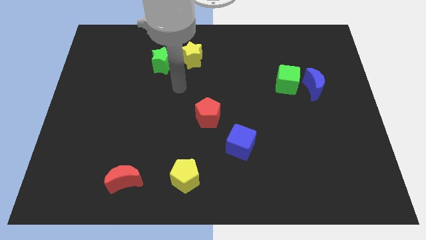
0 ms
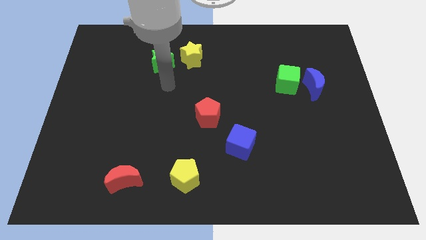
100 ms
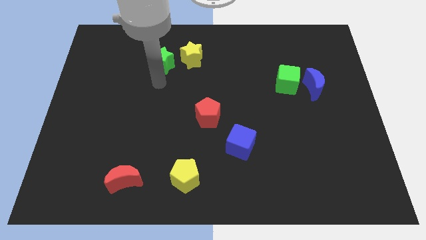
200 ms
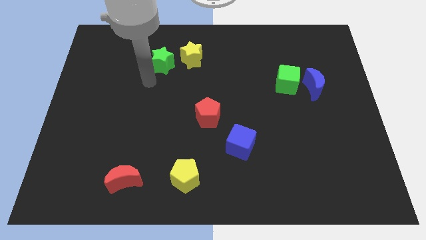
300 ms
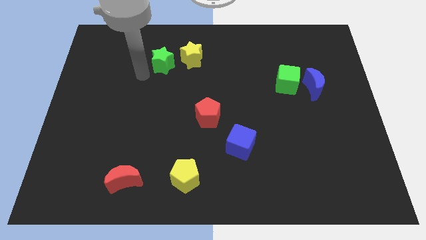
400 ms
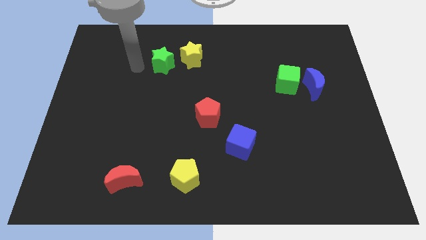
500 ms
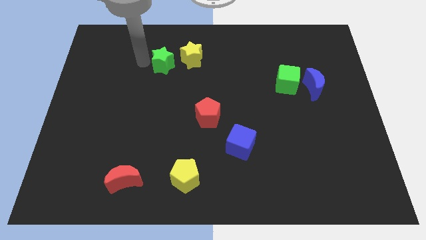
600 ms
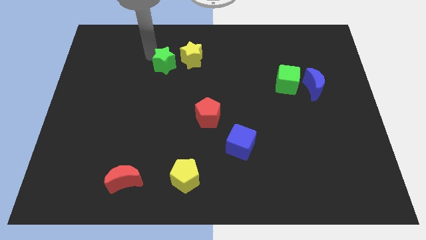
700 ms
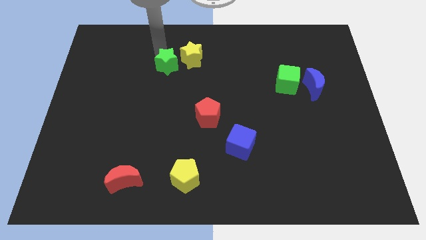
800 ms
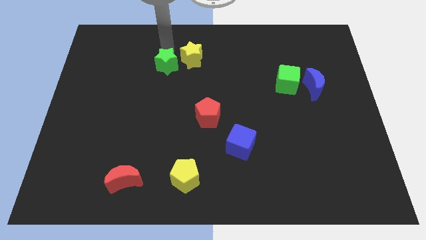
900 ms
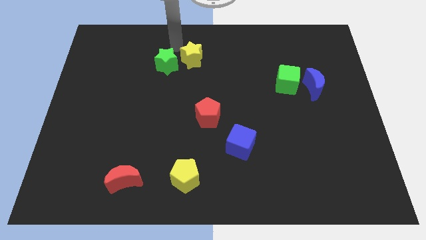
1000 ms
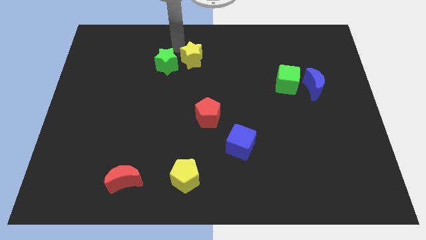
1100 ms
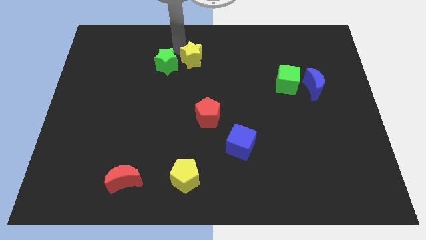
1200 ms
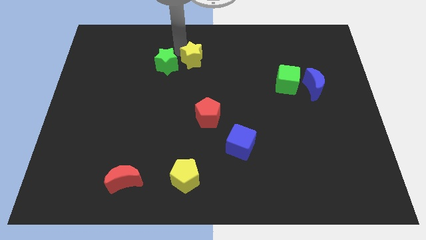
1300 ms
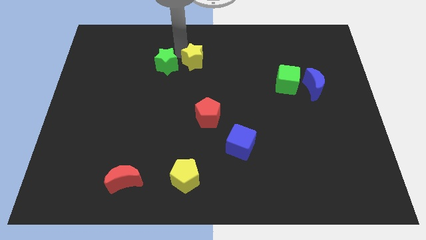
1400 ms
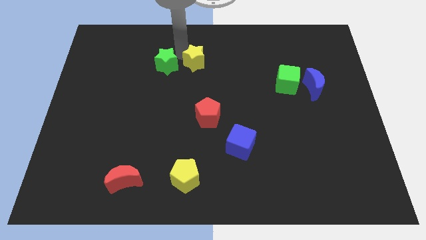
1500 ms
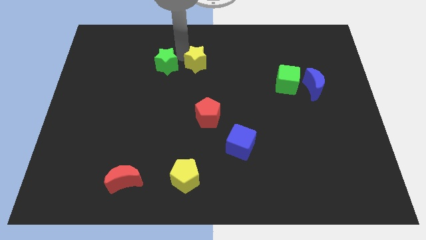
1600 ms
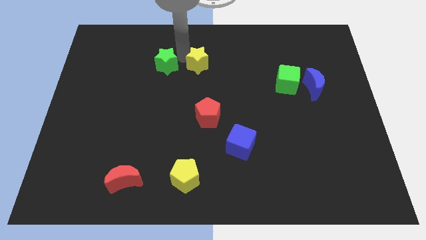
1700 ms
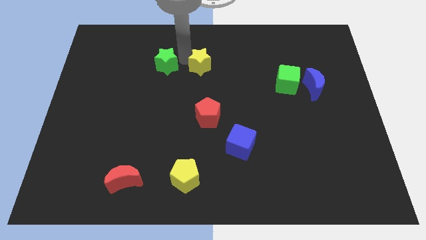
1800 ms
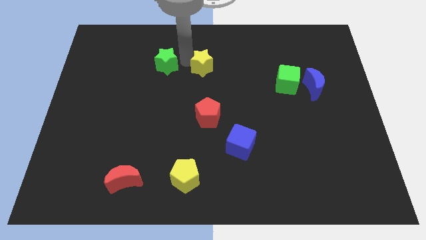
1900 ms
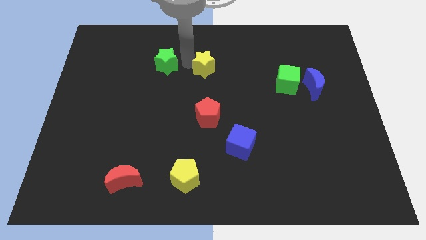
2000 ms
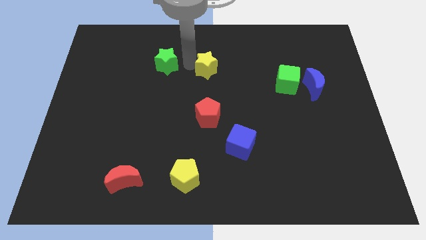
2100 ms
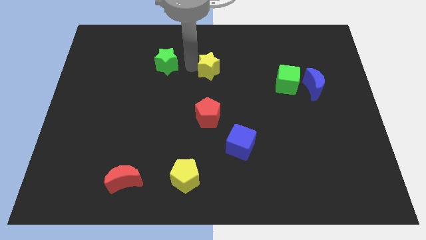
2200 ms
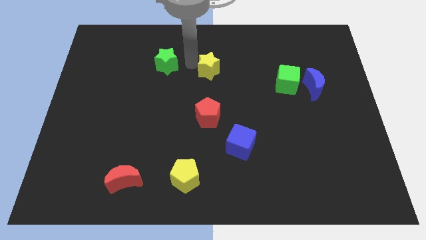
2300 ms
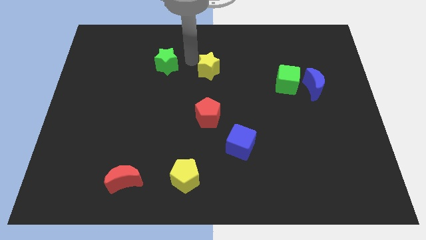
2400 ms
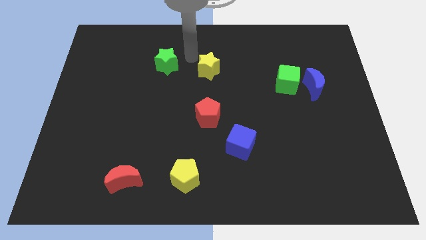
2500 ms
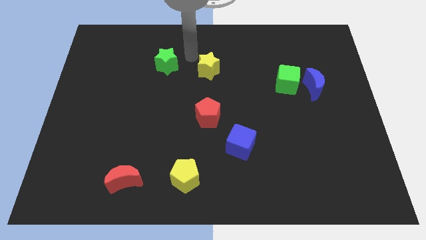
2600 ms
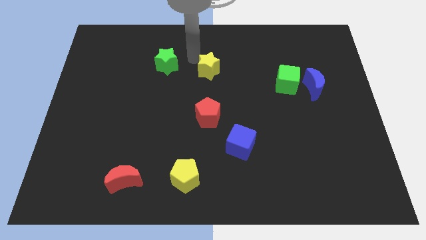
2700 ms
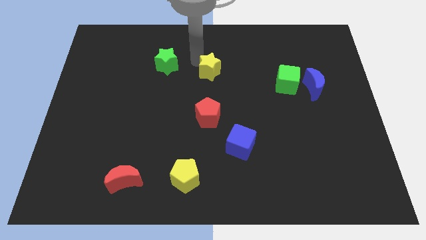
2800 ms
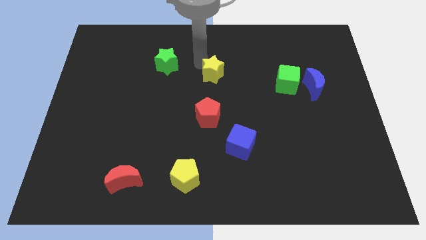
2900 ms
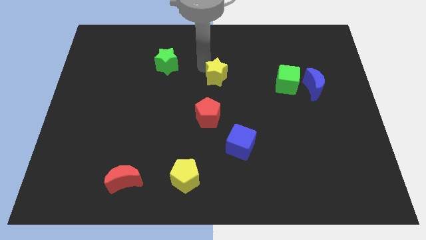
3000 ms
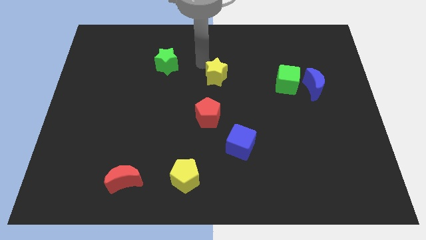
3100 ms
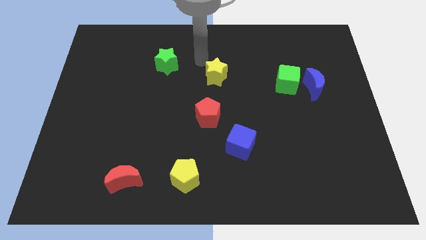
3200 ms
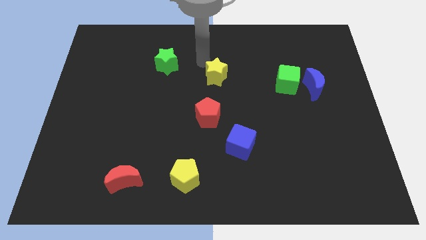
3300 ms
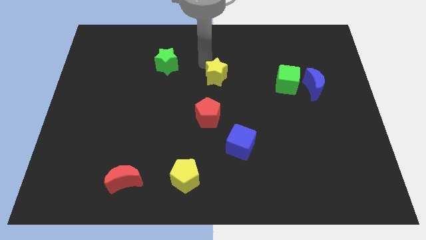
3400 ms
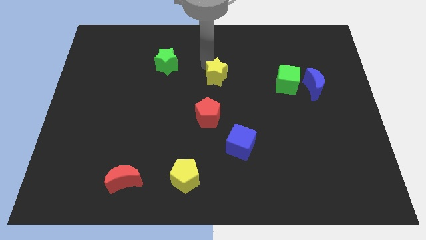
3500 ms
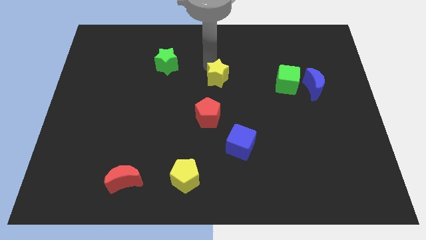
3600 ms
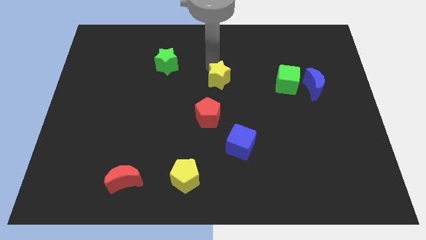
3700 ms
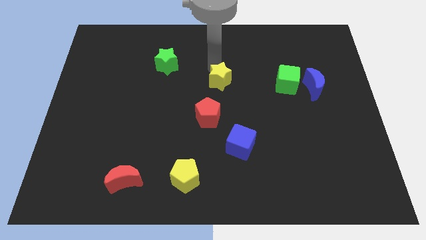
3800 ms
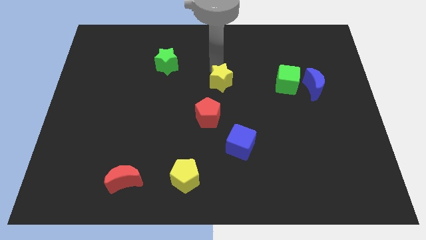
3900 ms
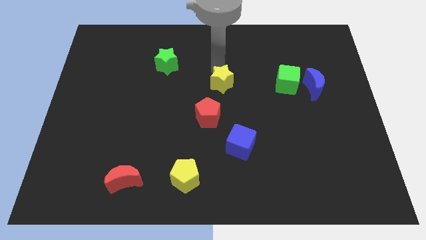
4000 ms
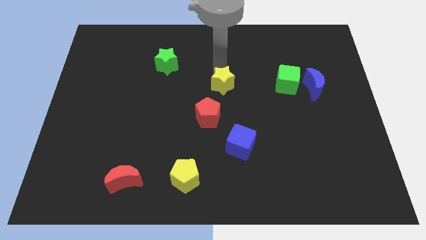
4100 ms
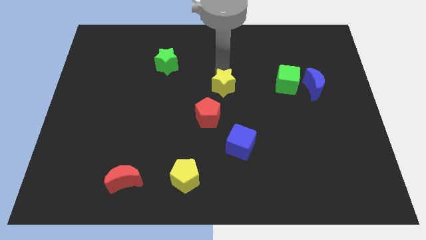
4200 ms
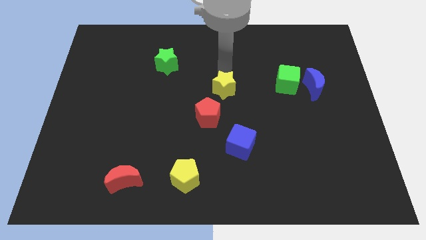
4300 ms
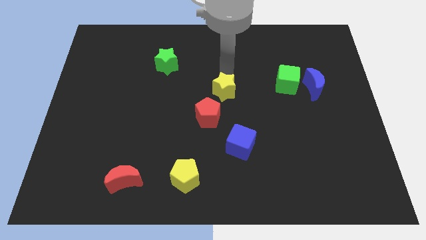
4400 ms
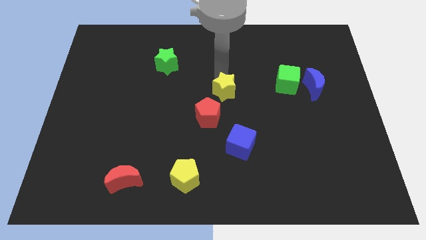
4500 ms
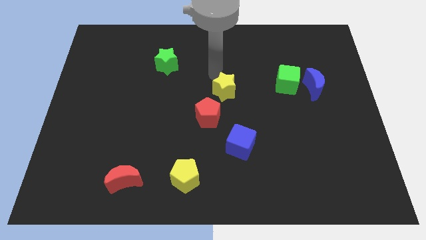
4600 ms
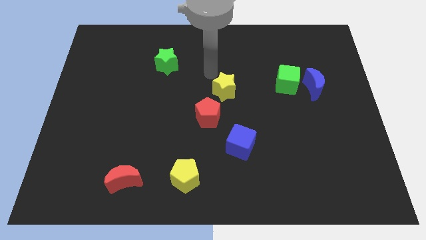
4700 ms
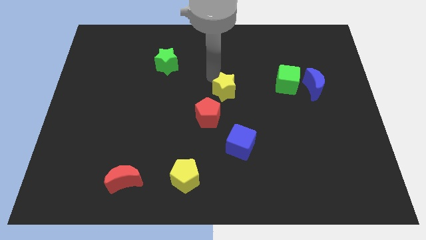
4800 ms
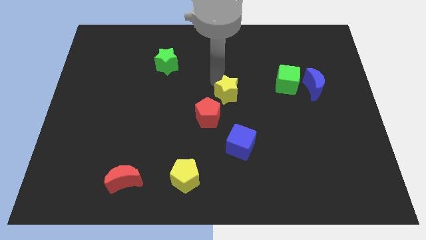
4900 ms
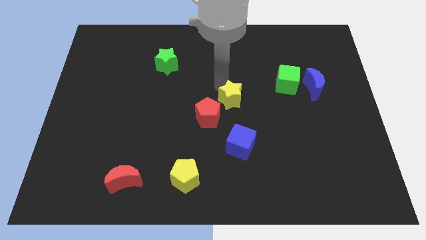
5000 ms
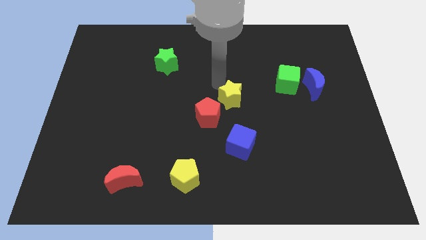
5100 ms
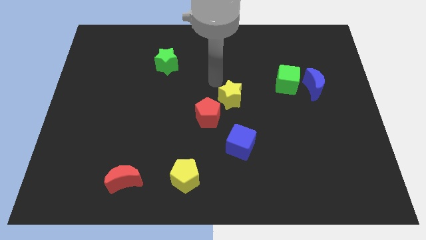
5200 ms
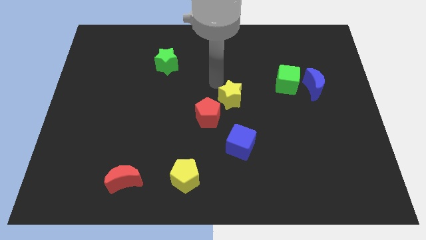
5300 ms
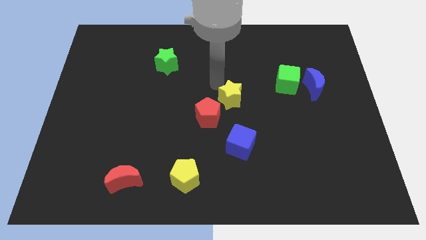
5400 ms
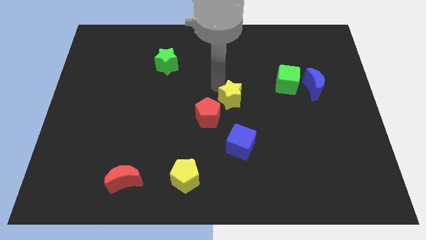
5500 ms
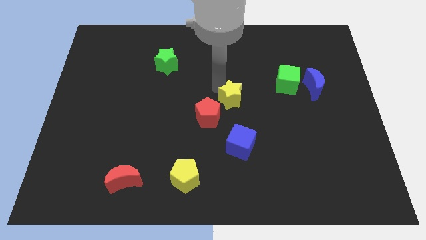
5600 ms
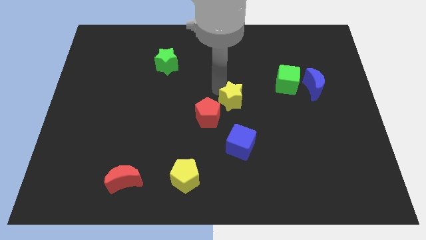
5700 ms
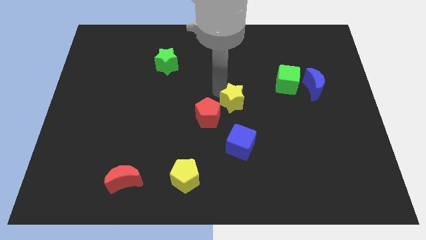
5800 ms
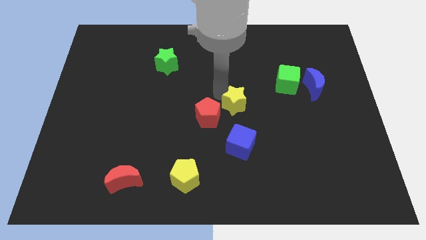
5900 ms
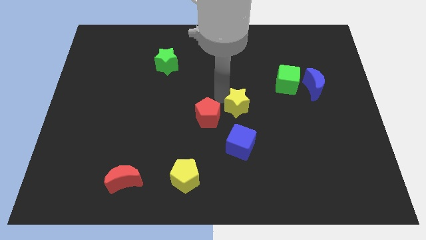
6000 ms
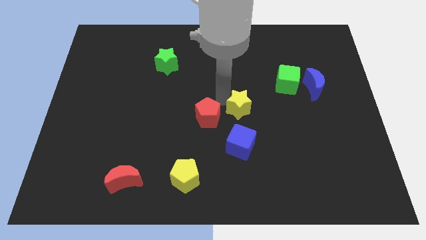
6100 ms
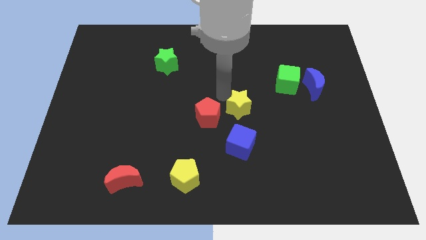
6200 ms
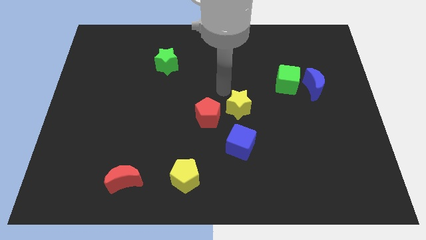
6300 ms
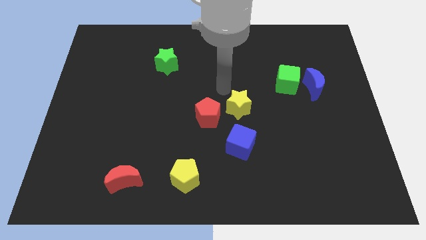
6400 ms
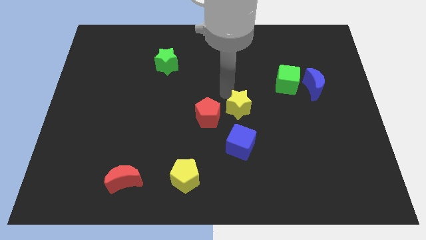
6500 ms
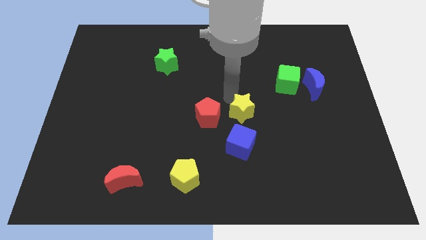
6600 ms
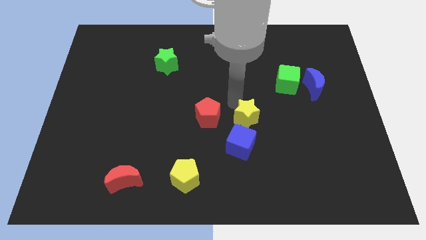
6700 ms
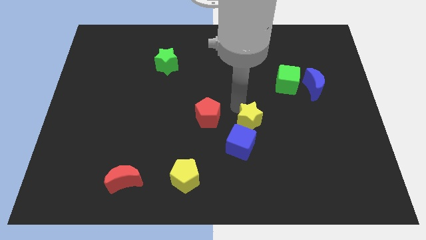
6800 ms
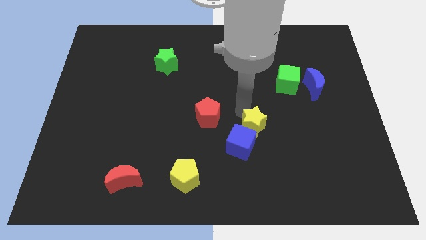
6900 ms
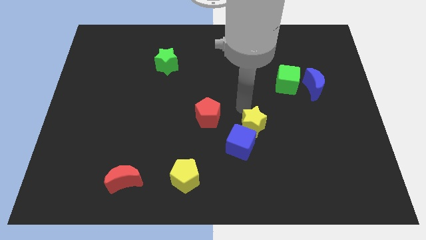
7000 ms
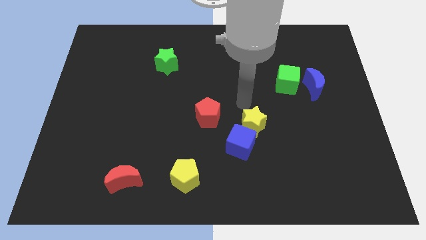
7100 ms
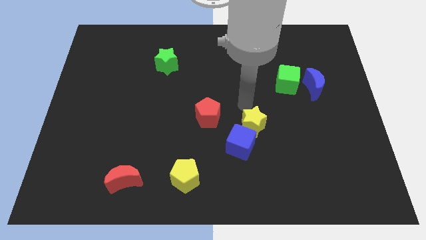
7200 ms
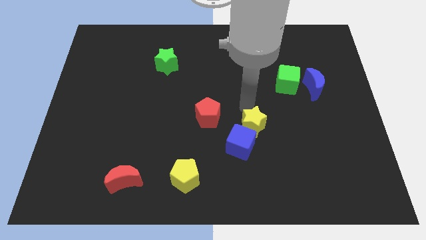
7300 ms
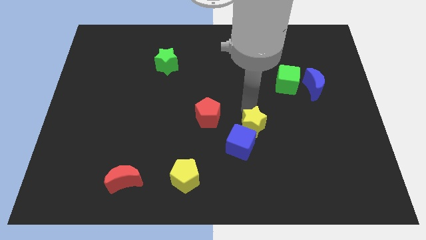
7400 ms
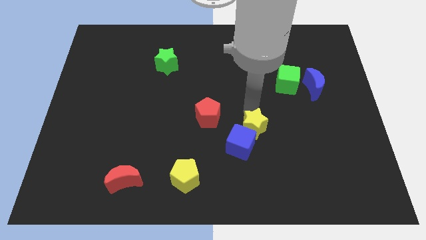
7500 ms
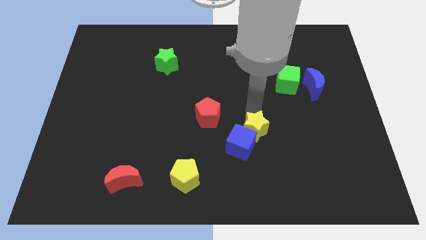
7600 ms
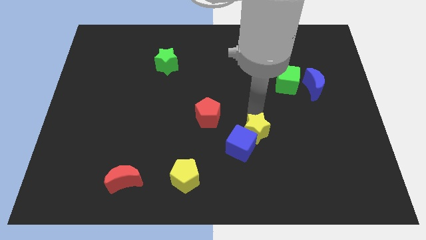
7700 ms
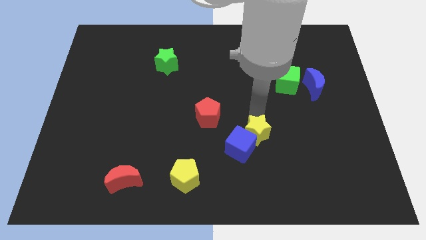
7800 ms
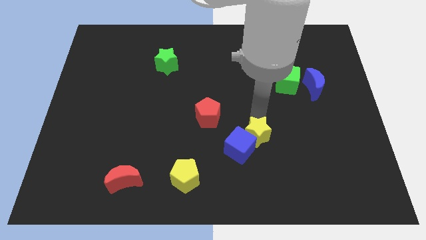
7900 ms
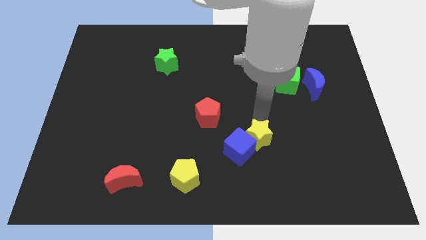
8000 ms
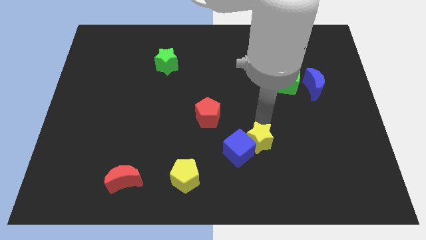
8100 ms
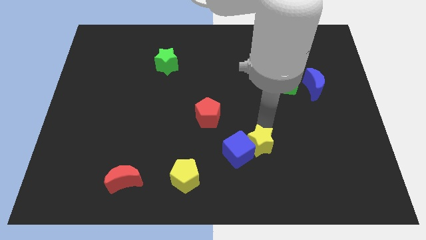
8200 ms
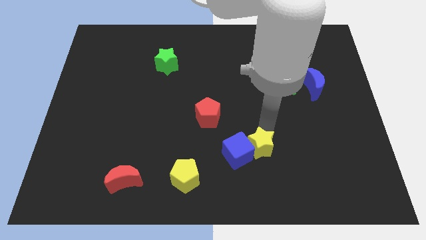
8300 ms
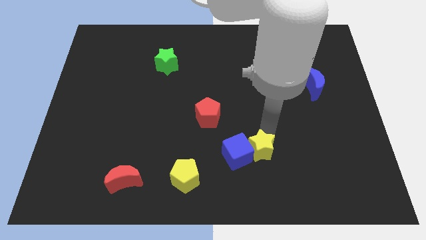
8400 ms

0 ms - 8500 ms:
slide the yellow star to the bottom right of the blue cube
